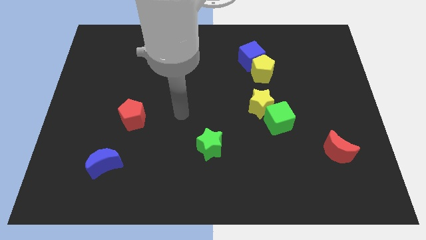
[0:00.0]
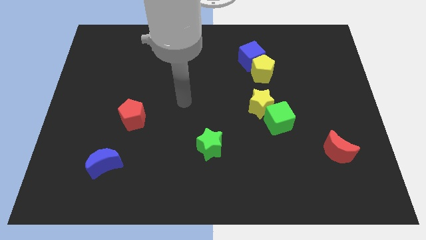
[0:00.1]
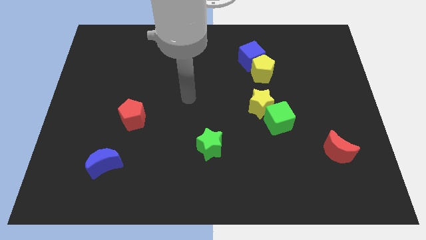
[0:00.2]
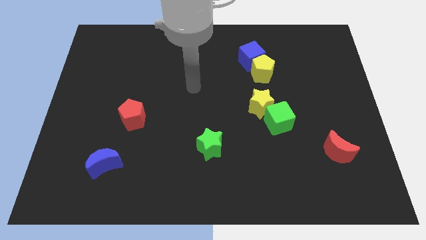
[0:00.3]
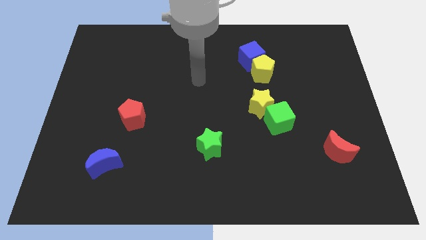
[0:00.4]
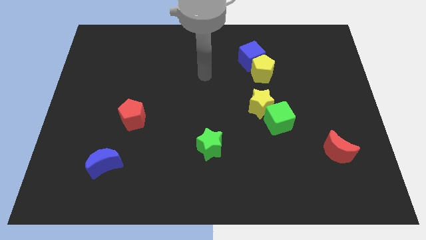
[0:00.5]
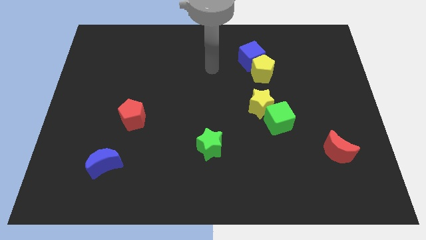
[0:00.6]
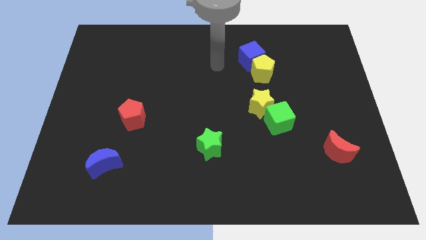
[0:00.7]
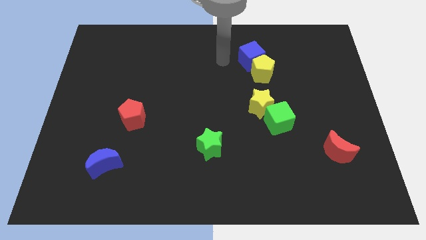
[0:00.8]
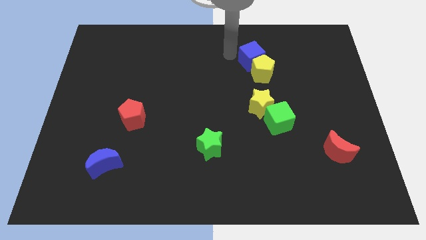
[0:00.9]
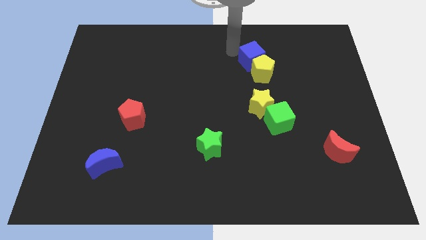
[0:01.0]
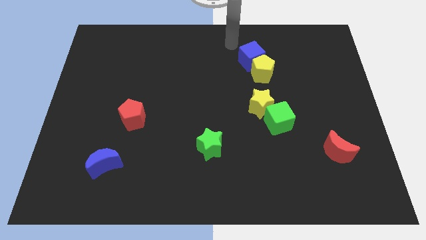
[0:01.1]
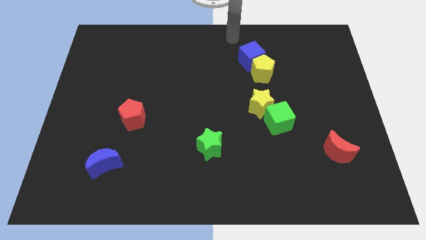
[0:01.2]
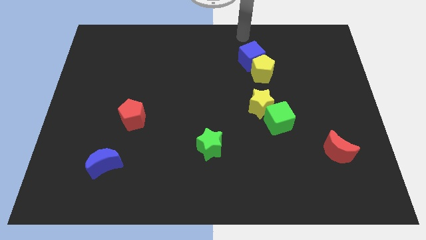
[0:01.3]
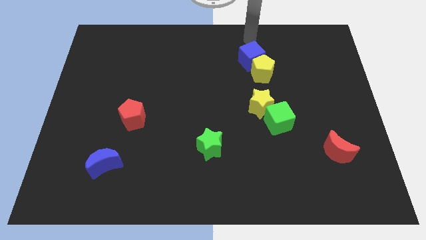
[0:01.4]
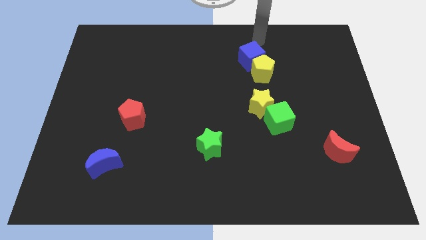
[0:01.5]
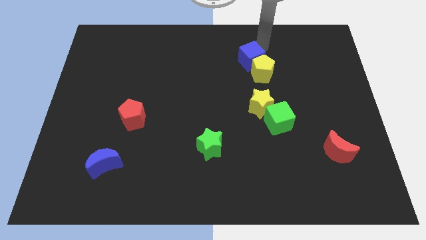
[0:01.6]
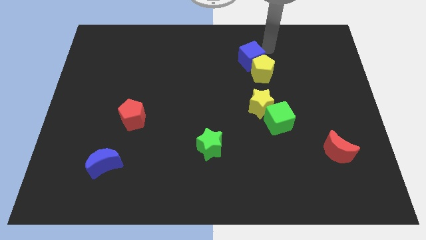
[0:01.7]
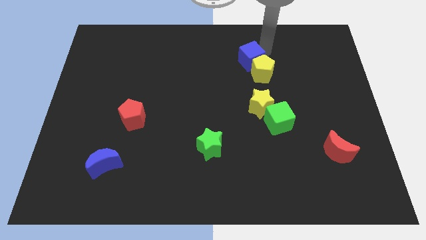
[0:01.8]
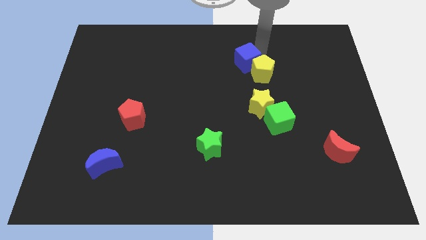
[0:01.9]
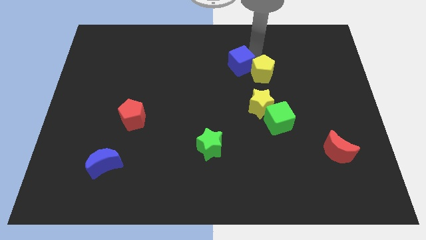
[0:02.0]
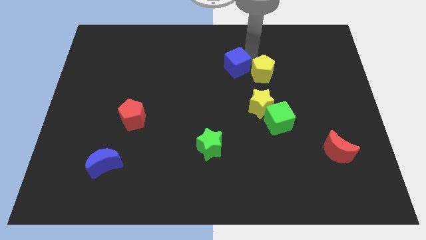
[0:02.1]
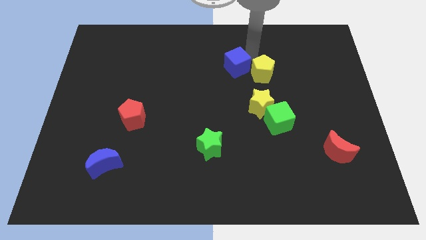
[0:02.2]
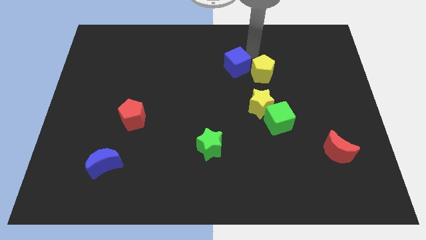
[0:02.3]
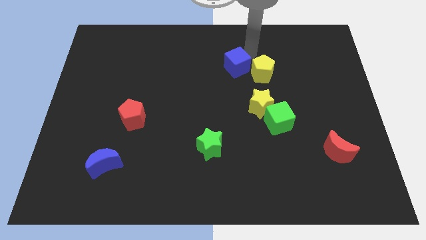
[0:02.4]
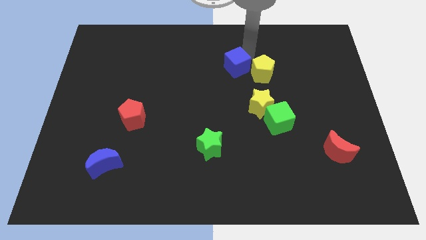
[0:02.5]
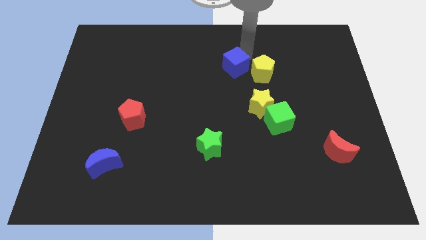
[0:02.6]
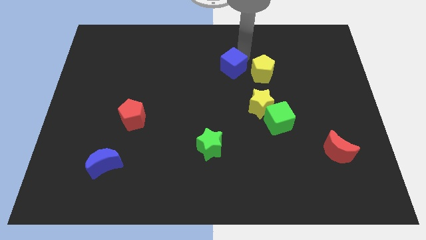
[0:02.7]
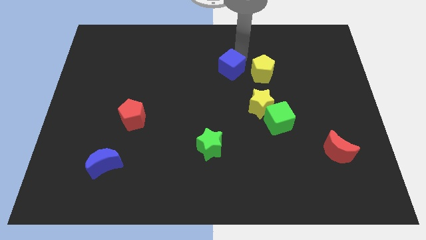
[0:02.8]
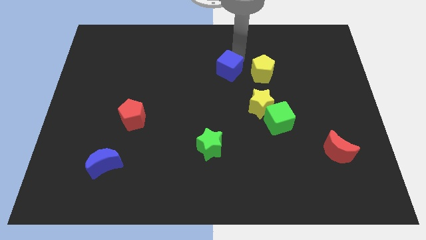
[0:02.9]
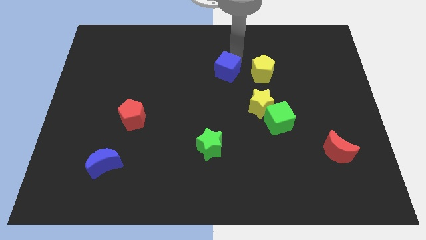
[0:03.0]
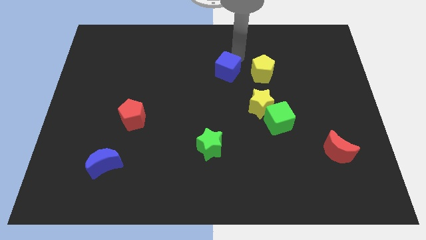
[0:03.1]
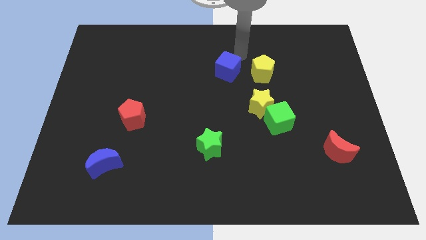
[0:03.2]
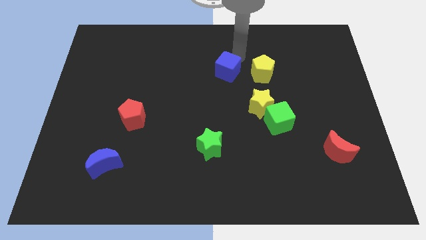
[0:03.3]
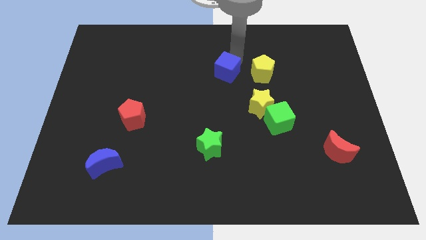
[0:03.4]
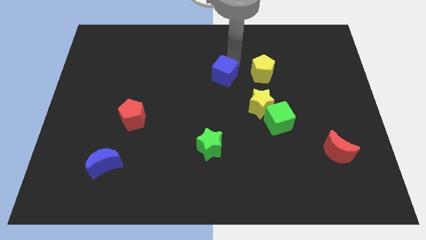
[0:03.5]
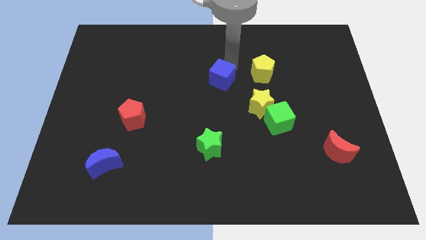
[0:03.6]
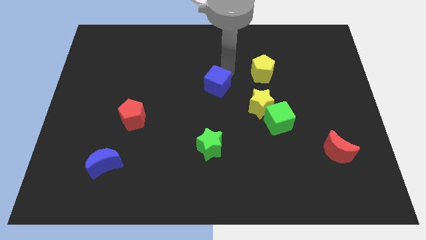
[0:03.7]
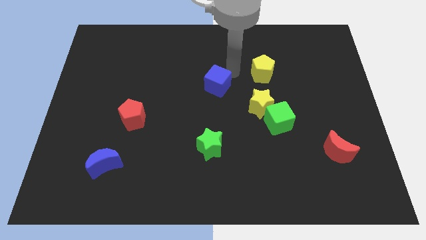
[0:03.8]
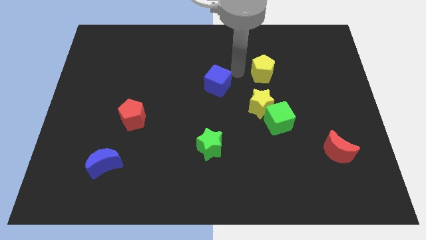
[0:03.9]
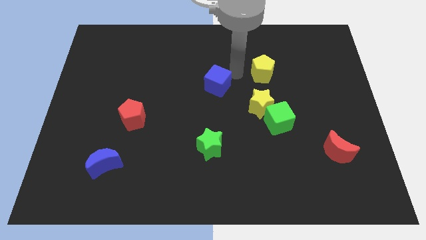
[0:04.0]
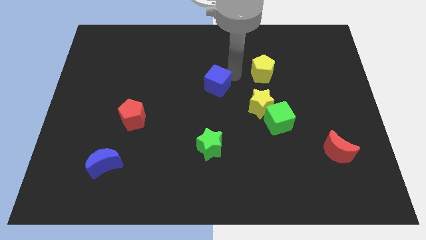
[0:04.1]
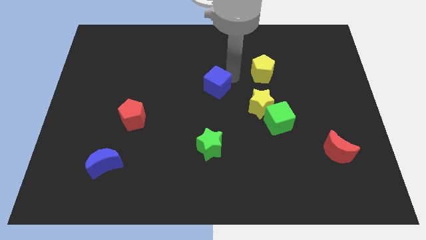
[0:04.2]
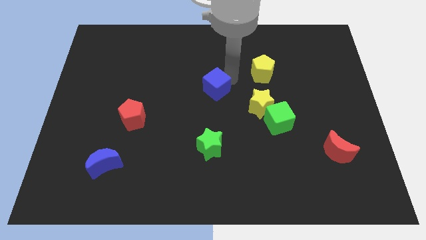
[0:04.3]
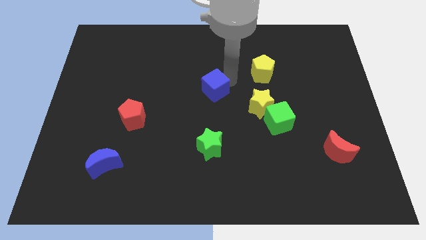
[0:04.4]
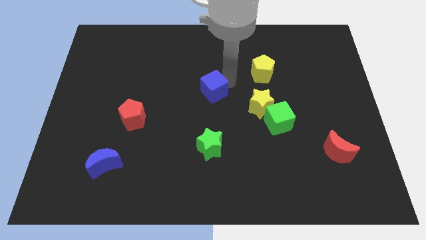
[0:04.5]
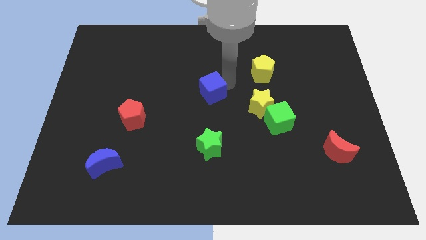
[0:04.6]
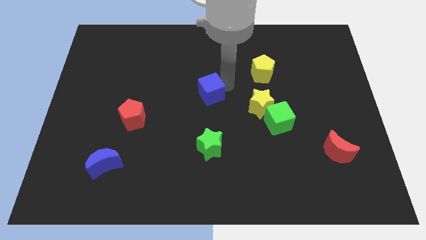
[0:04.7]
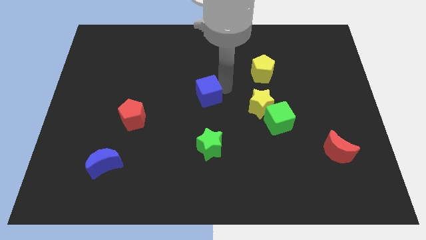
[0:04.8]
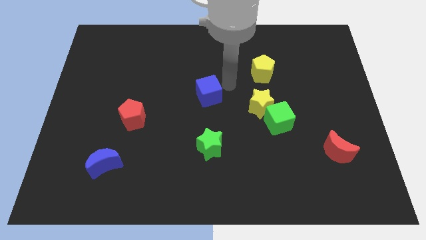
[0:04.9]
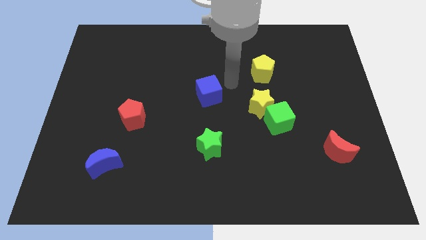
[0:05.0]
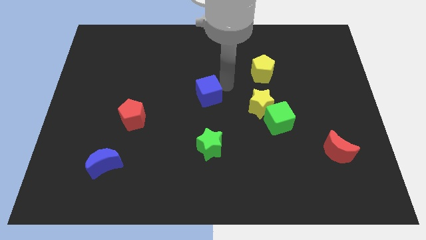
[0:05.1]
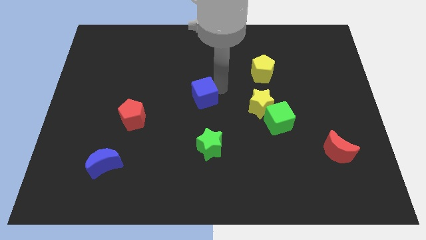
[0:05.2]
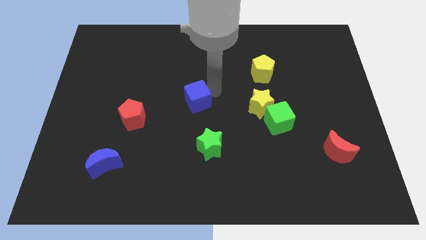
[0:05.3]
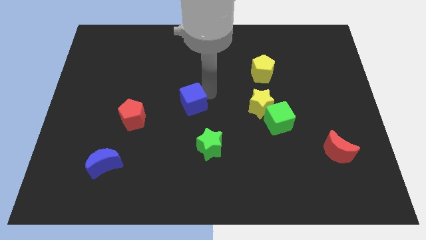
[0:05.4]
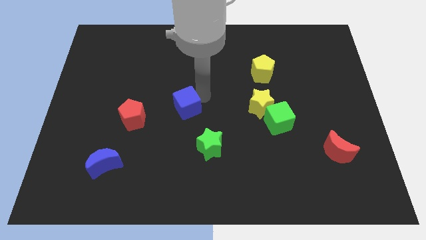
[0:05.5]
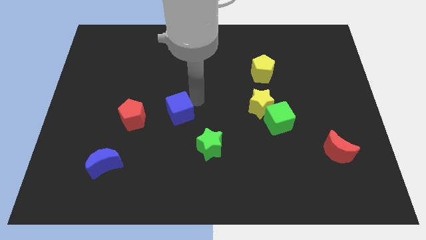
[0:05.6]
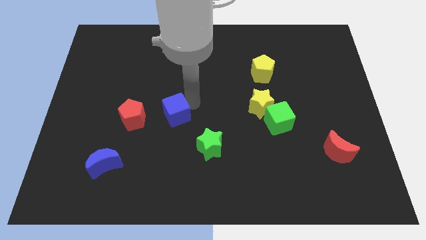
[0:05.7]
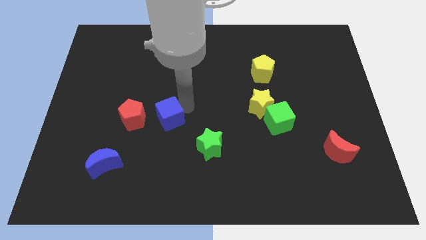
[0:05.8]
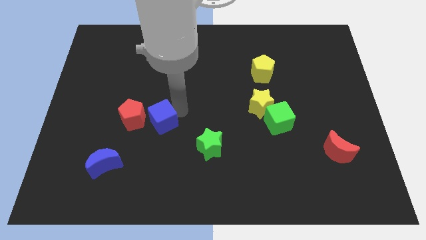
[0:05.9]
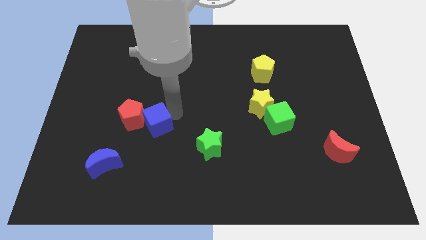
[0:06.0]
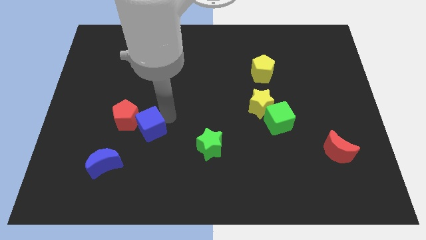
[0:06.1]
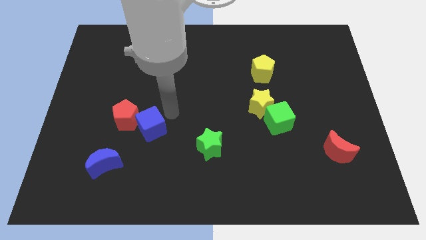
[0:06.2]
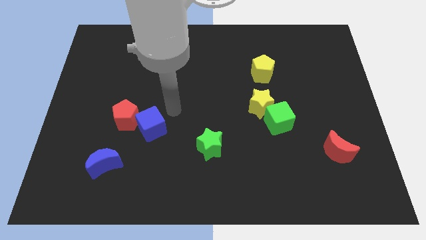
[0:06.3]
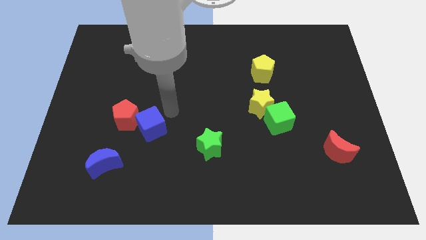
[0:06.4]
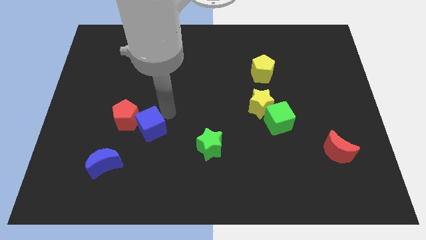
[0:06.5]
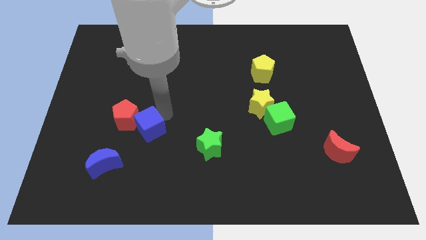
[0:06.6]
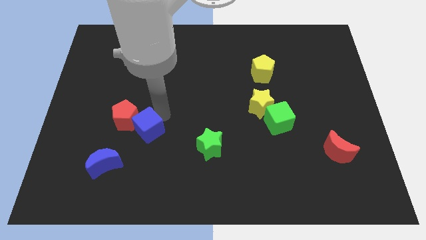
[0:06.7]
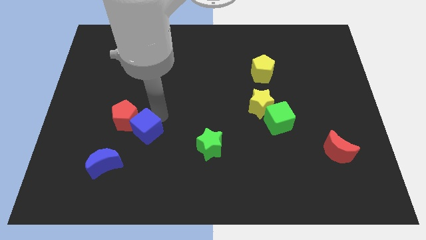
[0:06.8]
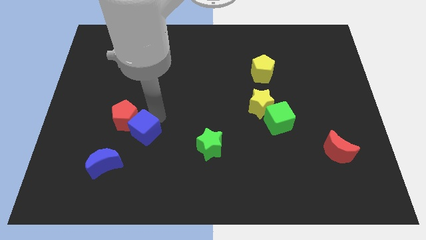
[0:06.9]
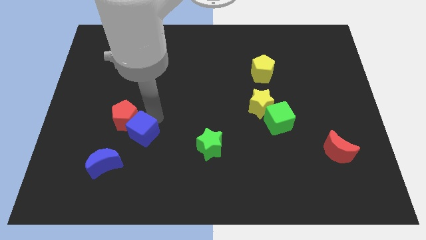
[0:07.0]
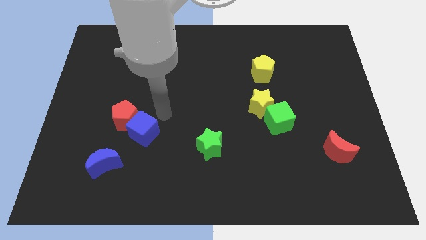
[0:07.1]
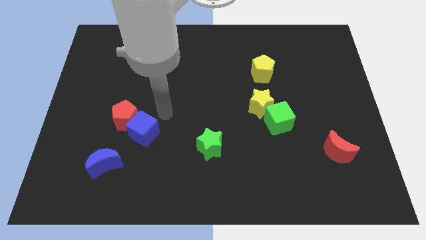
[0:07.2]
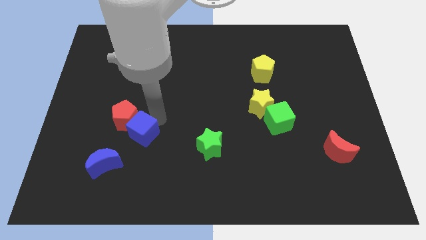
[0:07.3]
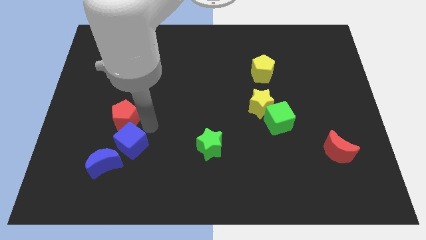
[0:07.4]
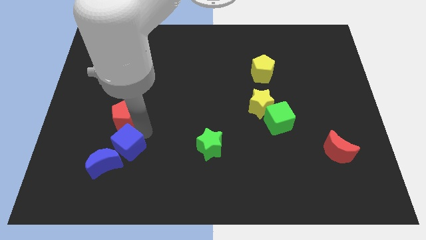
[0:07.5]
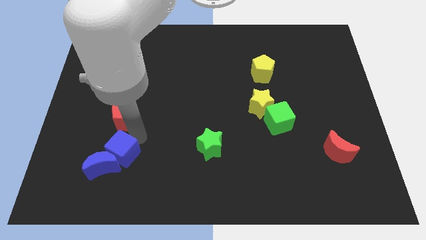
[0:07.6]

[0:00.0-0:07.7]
move the blue cube to the blue moon
